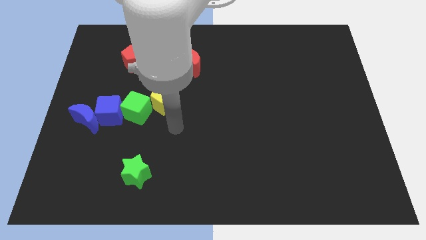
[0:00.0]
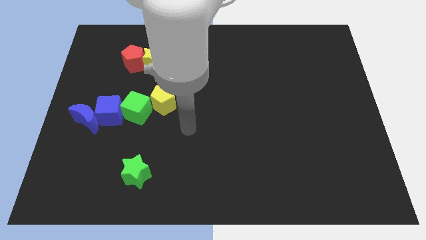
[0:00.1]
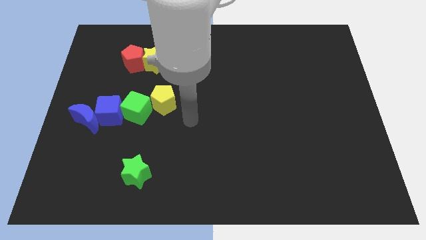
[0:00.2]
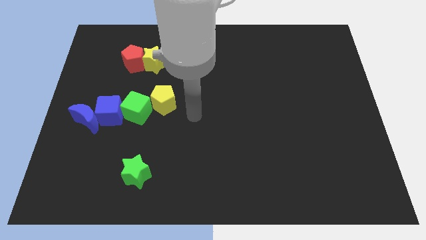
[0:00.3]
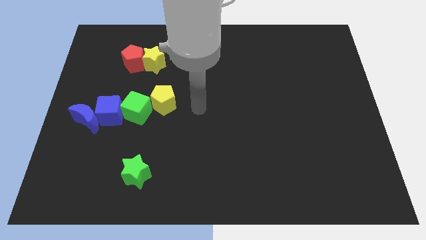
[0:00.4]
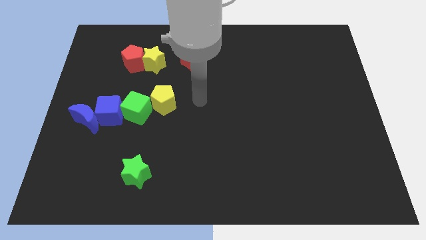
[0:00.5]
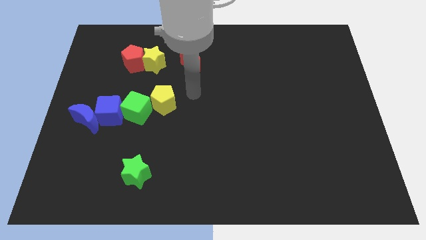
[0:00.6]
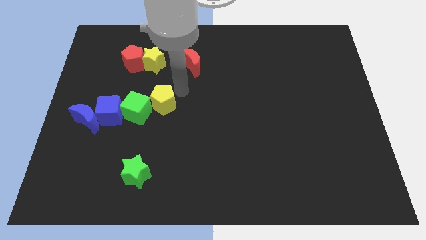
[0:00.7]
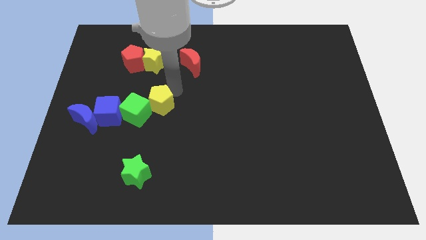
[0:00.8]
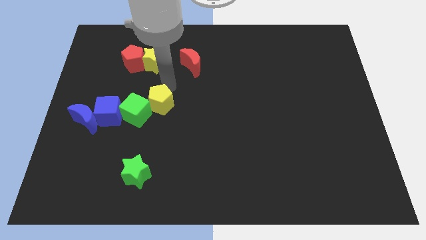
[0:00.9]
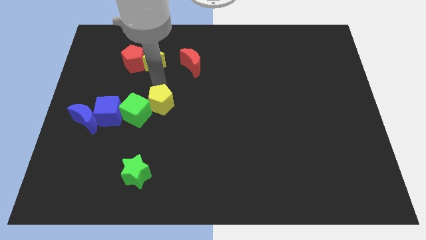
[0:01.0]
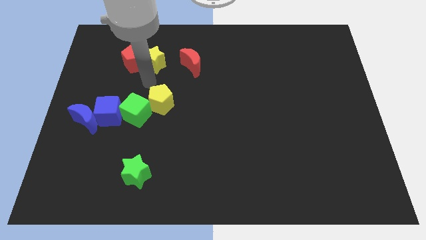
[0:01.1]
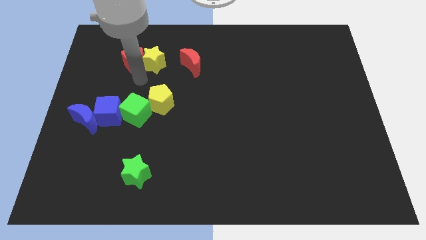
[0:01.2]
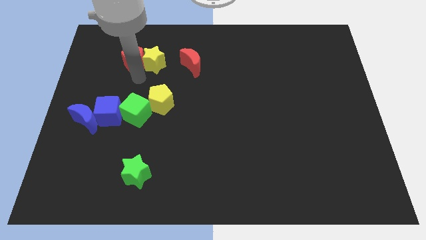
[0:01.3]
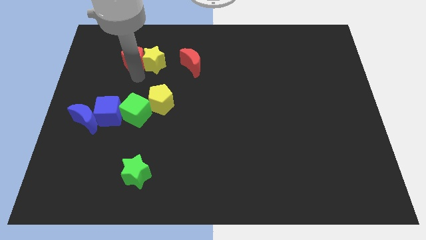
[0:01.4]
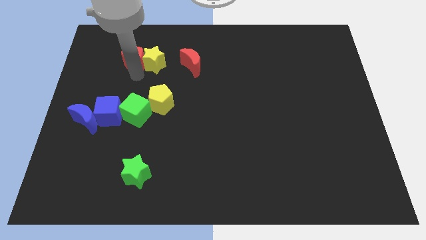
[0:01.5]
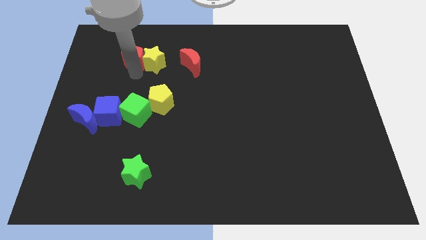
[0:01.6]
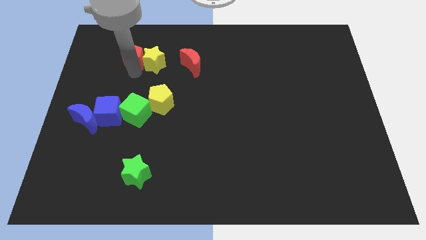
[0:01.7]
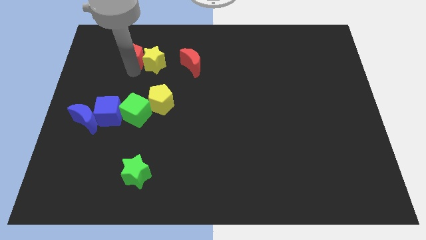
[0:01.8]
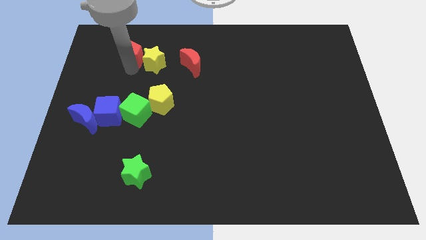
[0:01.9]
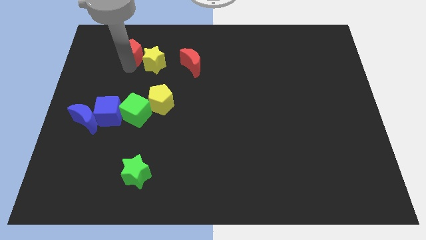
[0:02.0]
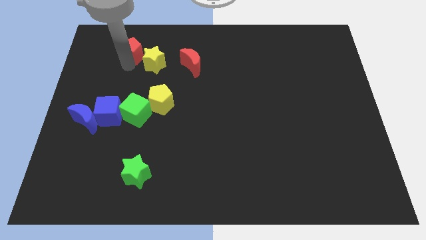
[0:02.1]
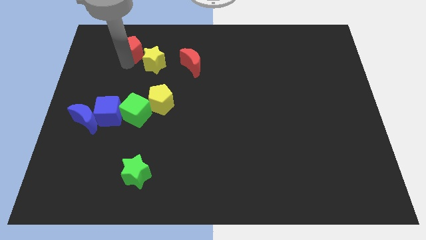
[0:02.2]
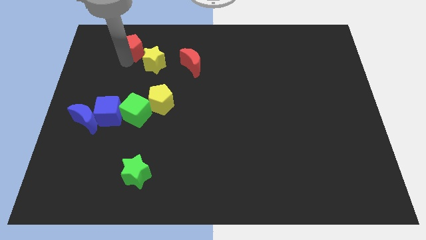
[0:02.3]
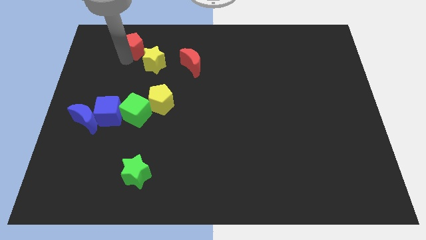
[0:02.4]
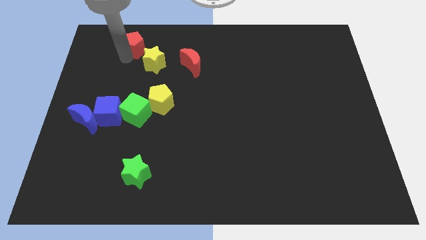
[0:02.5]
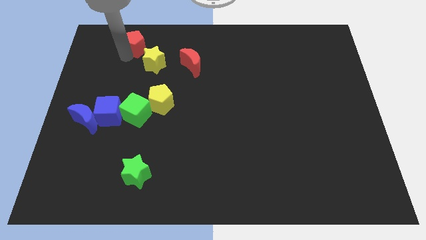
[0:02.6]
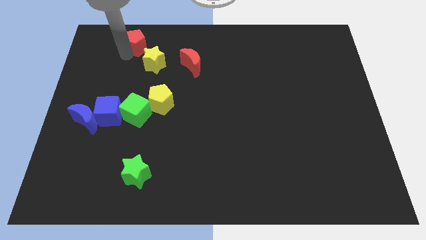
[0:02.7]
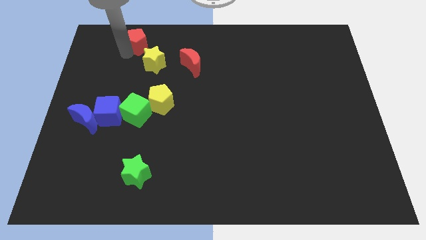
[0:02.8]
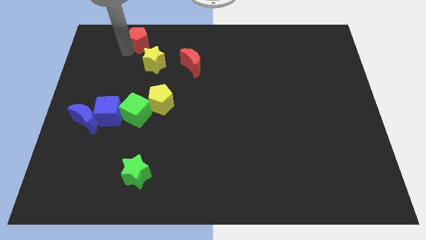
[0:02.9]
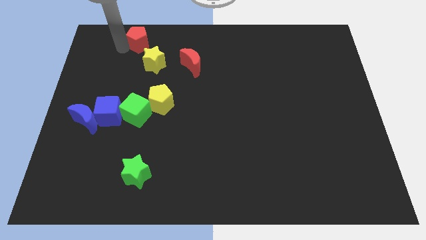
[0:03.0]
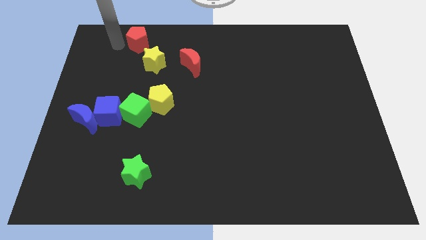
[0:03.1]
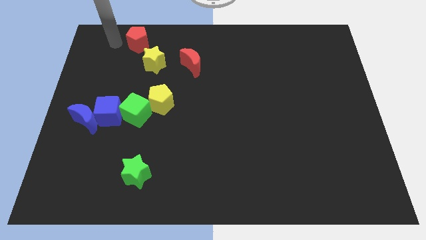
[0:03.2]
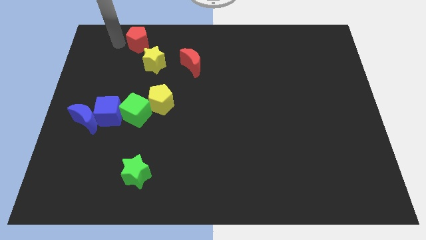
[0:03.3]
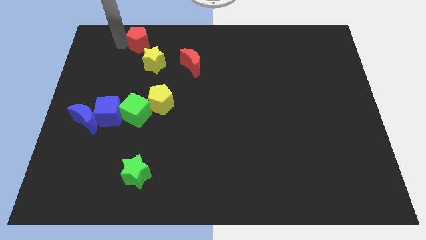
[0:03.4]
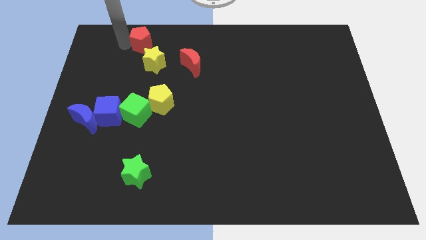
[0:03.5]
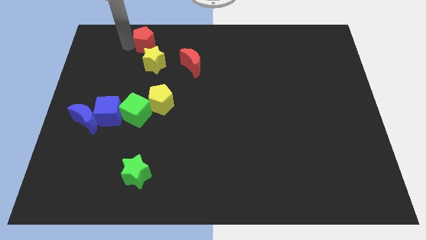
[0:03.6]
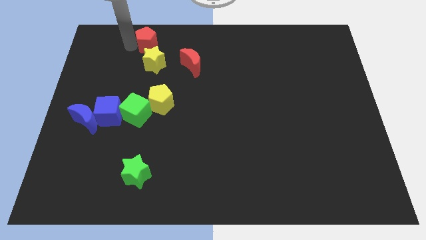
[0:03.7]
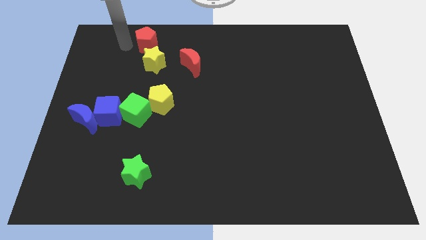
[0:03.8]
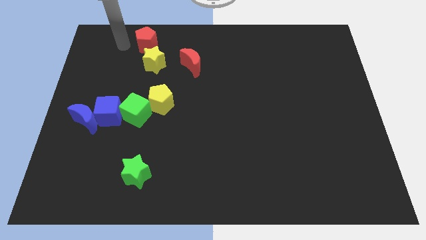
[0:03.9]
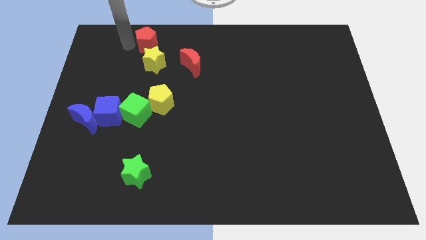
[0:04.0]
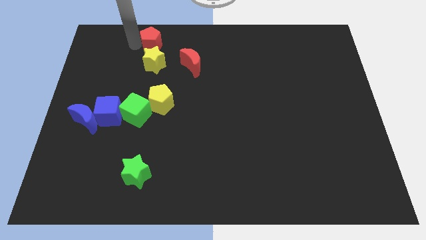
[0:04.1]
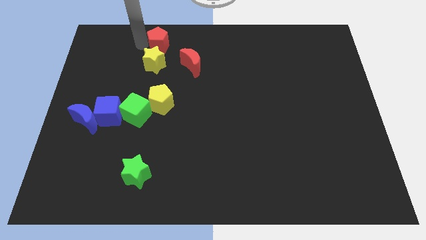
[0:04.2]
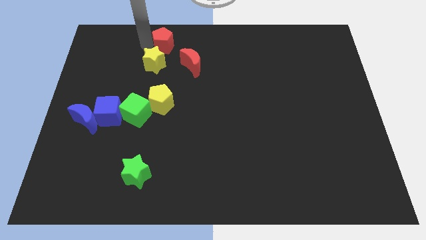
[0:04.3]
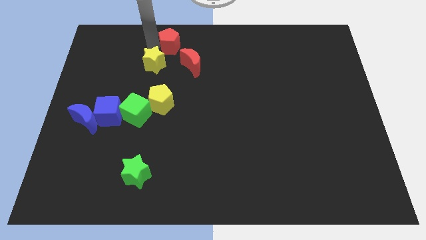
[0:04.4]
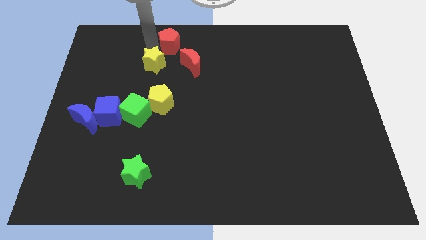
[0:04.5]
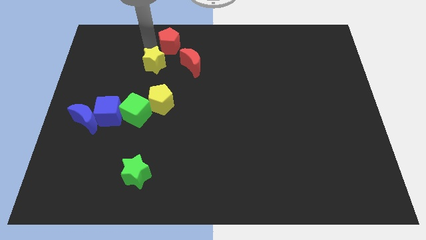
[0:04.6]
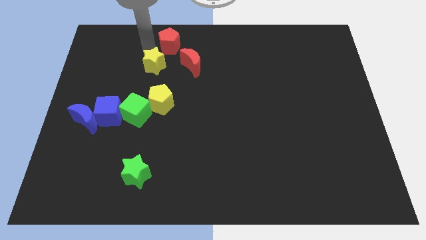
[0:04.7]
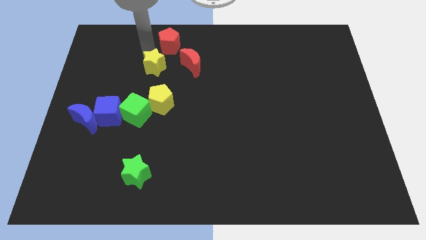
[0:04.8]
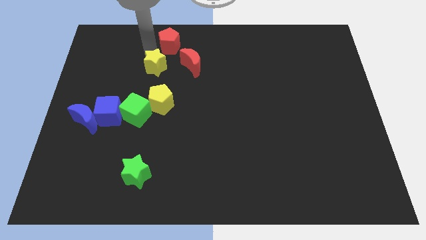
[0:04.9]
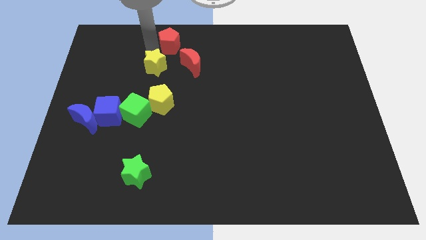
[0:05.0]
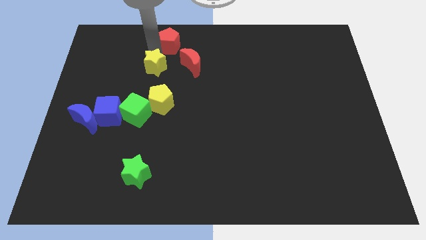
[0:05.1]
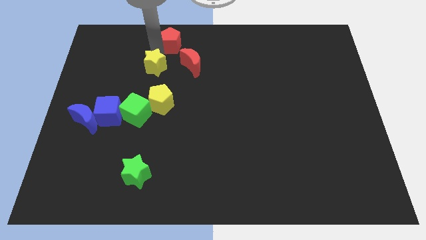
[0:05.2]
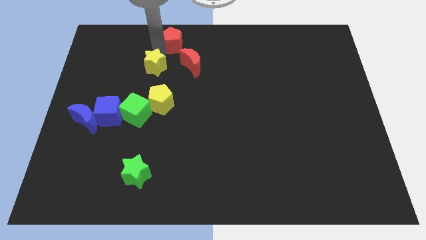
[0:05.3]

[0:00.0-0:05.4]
push the red pentagon to the towards your base

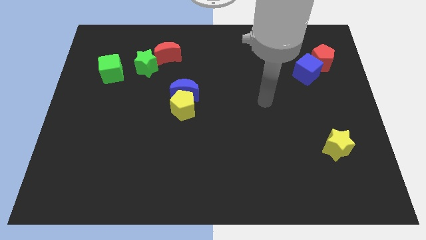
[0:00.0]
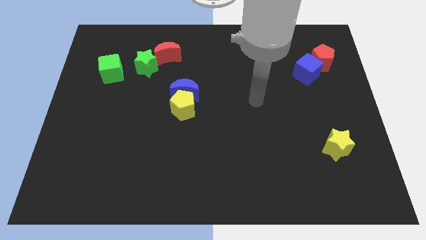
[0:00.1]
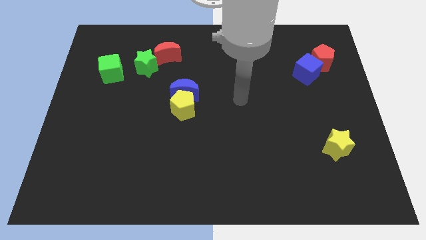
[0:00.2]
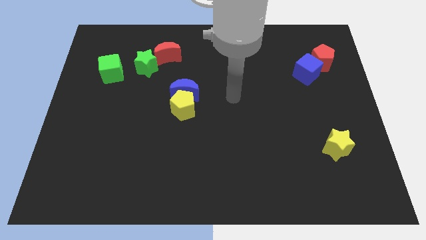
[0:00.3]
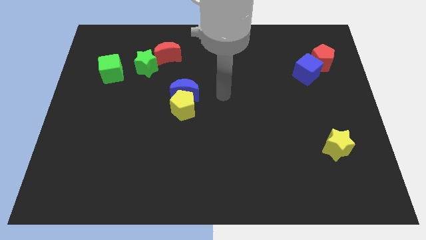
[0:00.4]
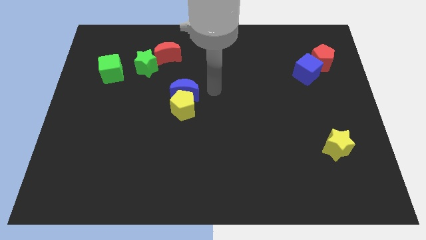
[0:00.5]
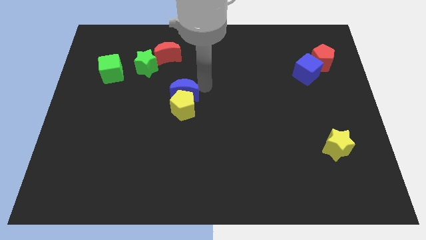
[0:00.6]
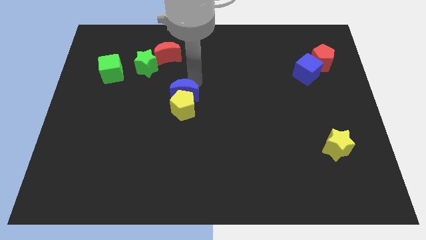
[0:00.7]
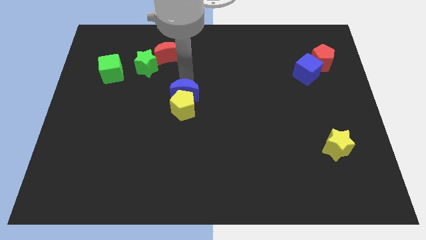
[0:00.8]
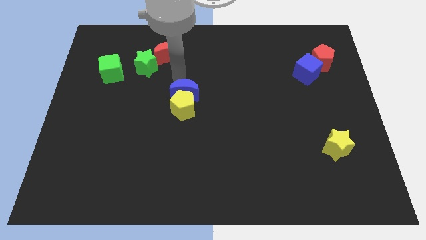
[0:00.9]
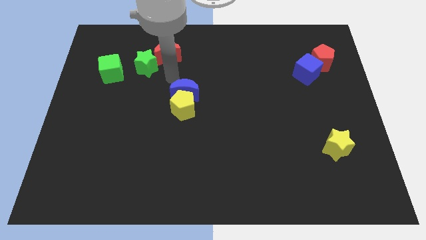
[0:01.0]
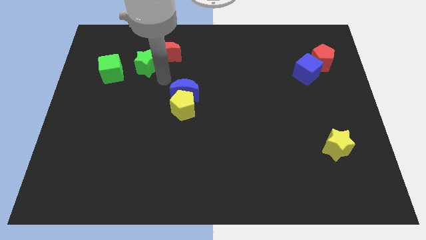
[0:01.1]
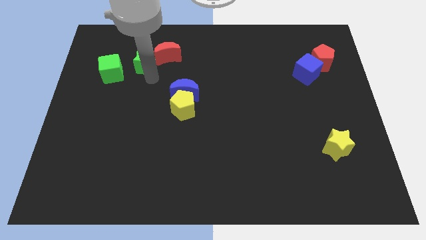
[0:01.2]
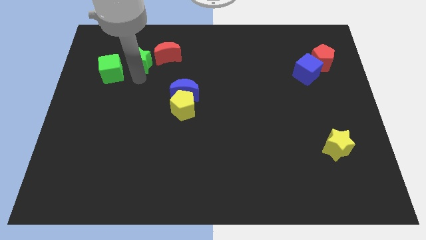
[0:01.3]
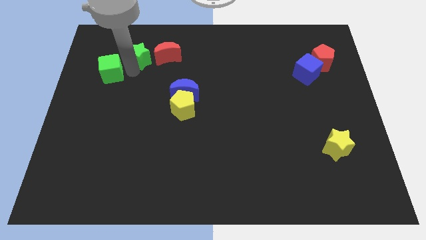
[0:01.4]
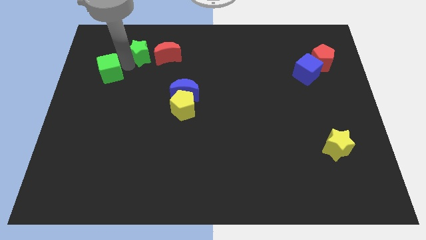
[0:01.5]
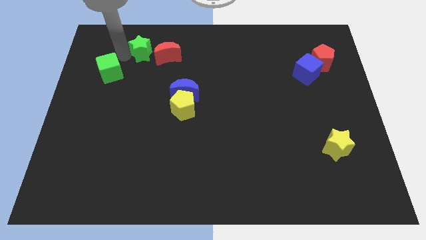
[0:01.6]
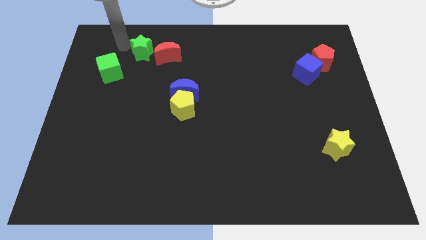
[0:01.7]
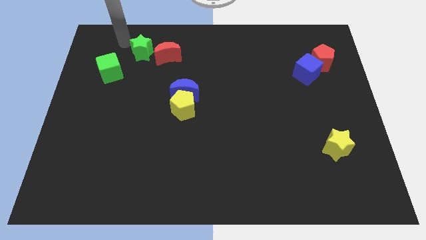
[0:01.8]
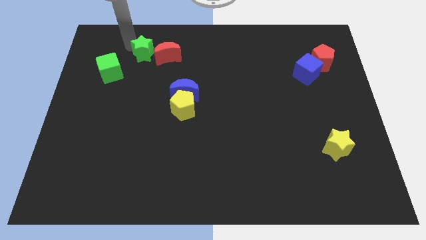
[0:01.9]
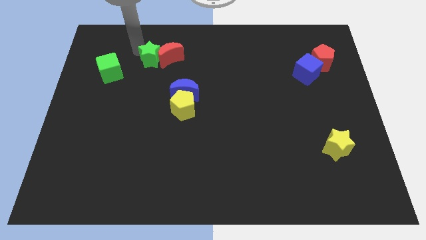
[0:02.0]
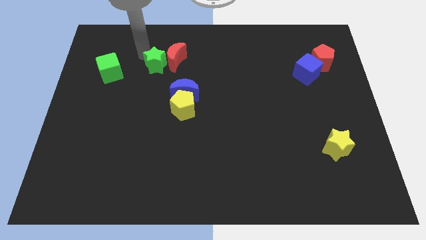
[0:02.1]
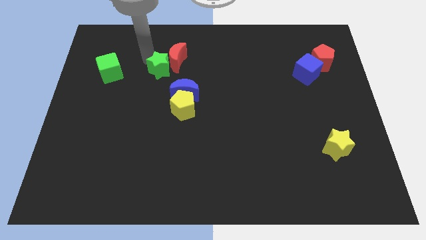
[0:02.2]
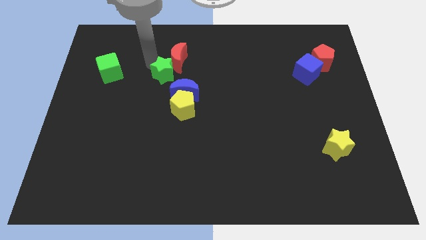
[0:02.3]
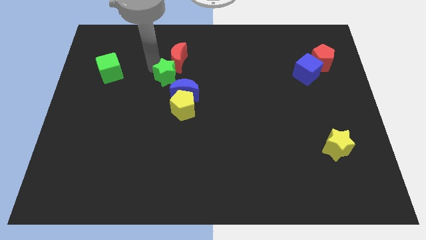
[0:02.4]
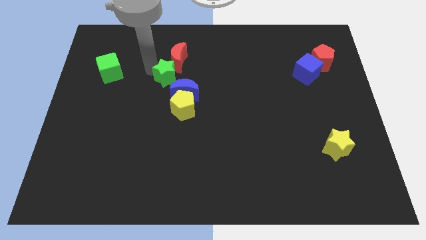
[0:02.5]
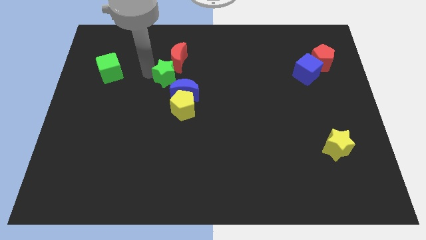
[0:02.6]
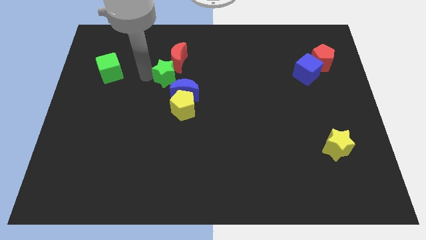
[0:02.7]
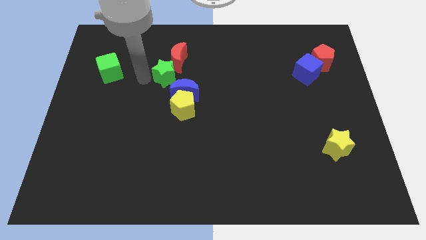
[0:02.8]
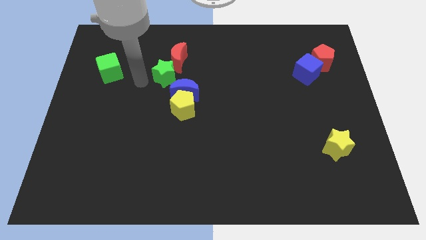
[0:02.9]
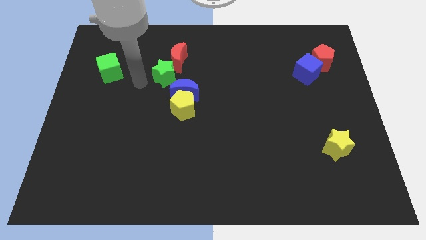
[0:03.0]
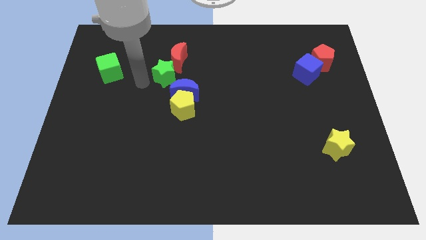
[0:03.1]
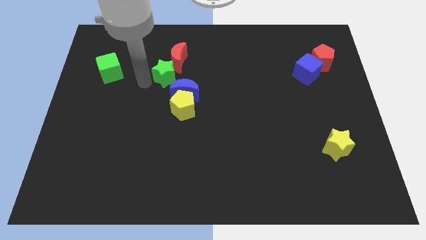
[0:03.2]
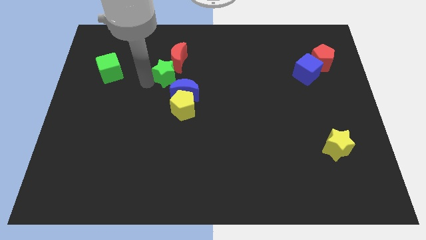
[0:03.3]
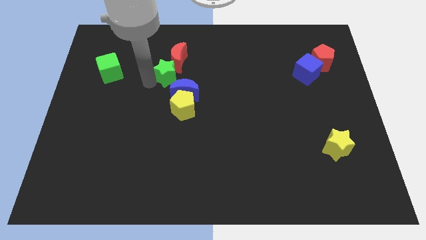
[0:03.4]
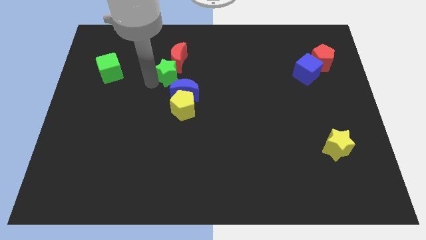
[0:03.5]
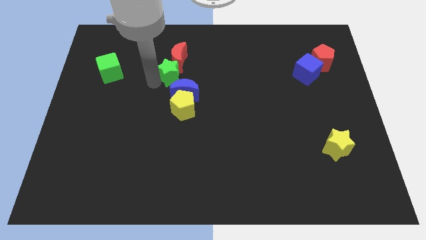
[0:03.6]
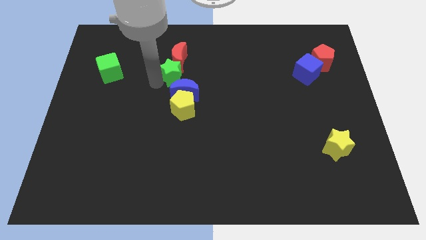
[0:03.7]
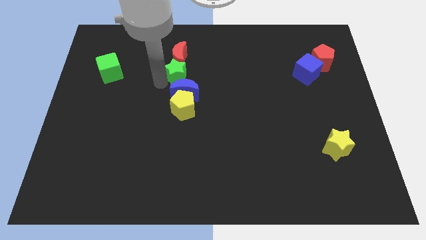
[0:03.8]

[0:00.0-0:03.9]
push the green star to the middle of the board
